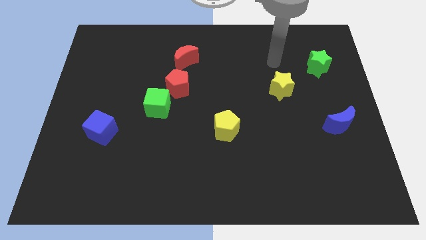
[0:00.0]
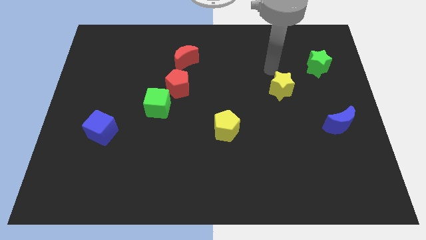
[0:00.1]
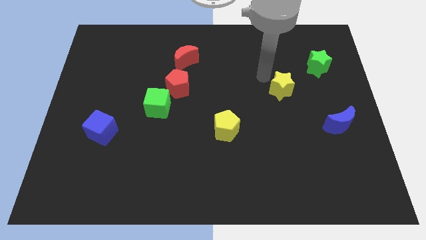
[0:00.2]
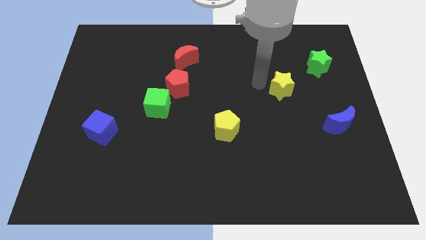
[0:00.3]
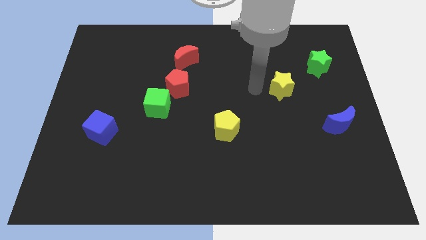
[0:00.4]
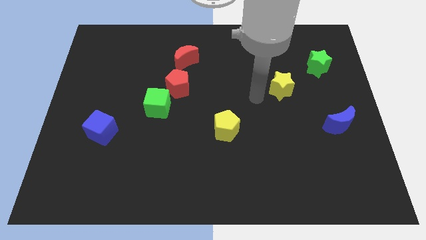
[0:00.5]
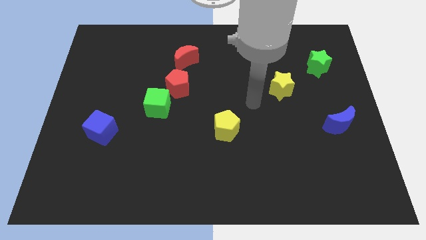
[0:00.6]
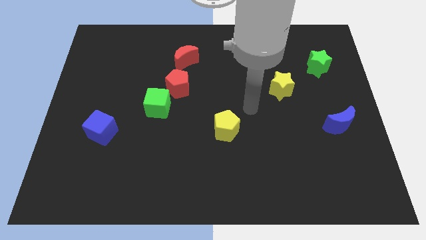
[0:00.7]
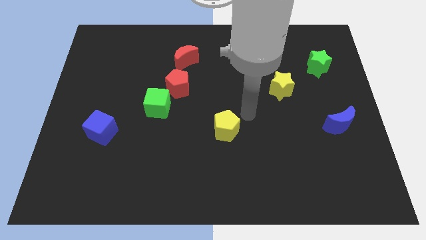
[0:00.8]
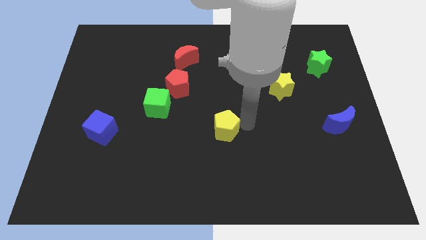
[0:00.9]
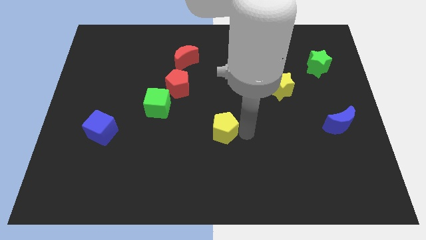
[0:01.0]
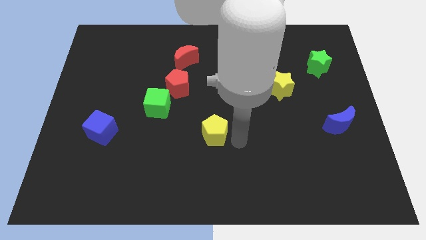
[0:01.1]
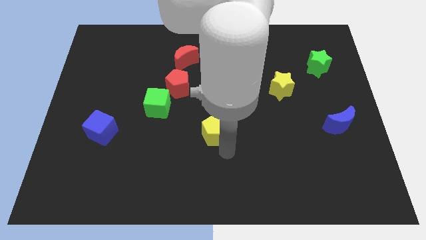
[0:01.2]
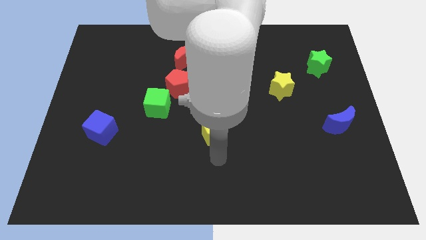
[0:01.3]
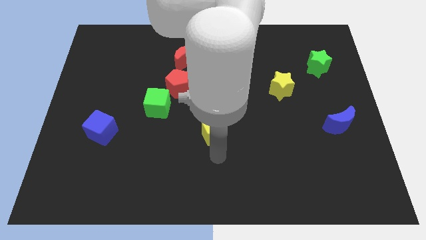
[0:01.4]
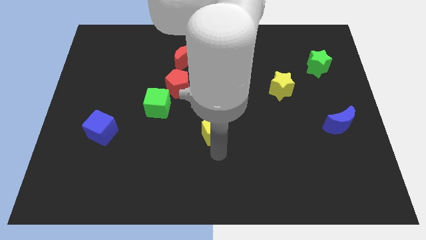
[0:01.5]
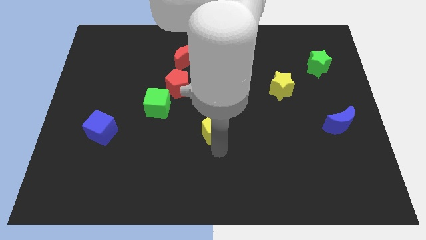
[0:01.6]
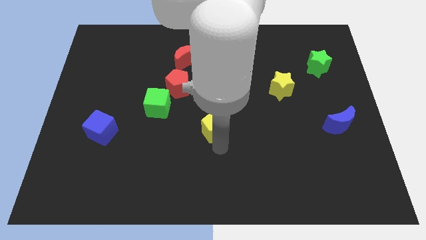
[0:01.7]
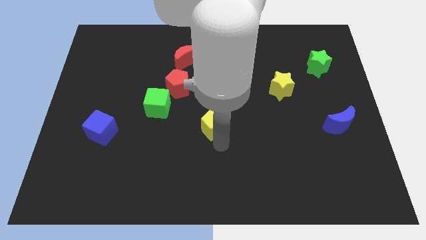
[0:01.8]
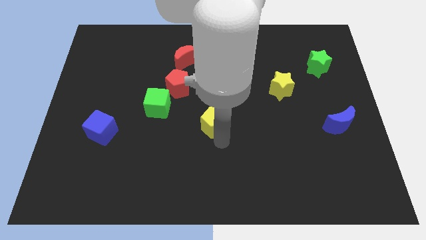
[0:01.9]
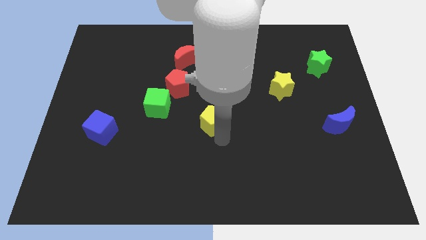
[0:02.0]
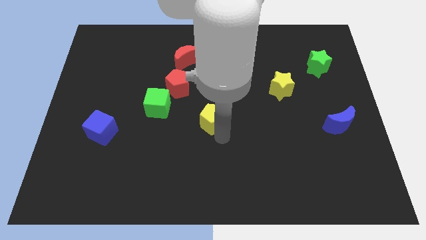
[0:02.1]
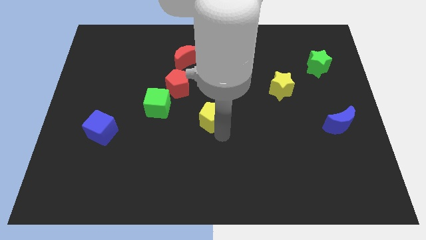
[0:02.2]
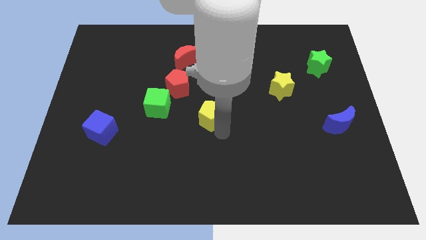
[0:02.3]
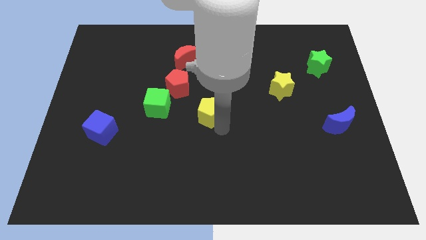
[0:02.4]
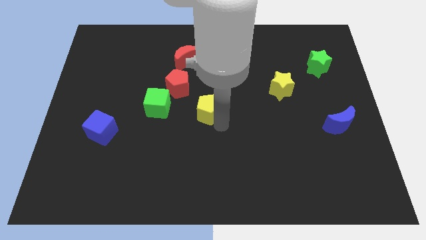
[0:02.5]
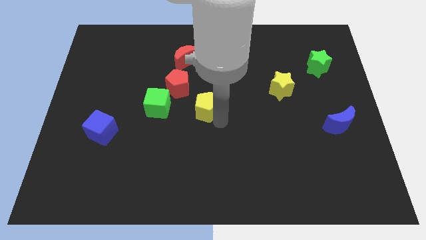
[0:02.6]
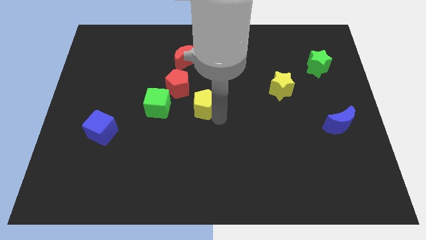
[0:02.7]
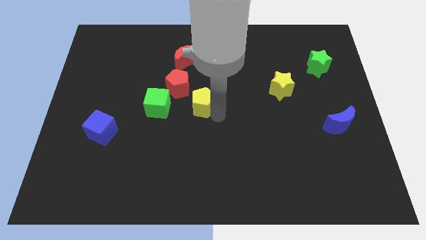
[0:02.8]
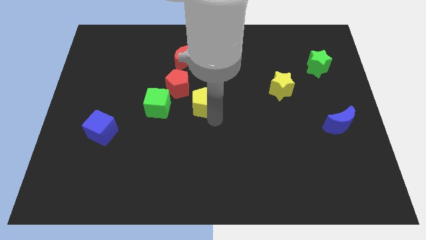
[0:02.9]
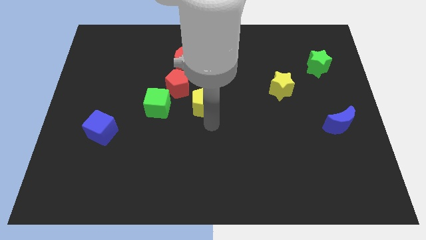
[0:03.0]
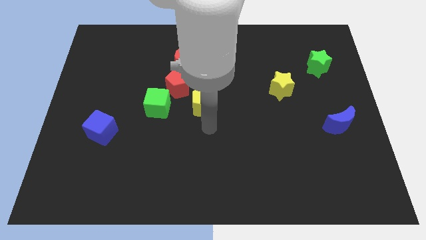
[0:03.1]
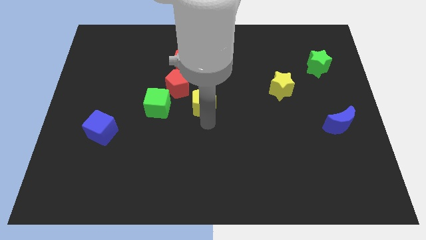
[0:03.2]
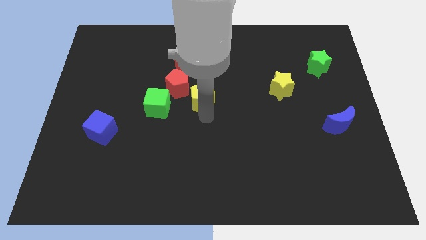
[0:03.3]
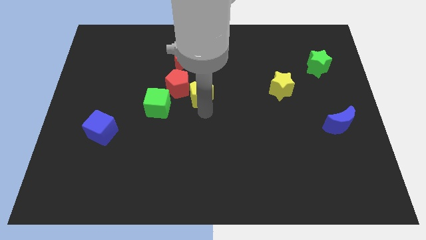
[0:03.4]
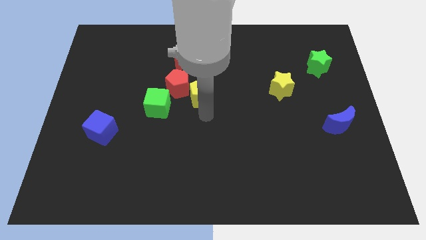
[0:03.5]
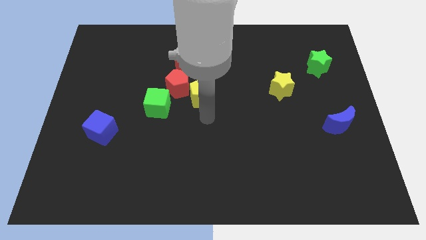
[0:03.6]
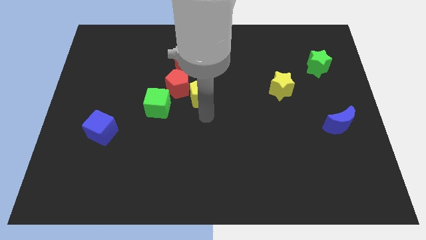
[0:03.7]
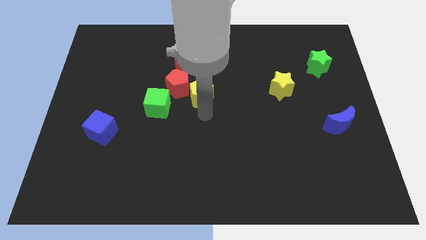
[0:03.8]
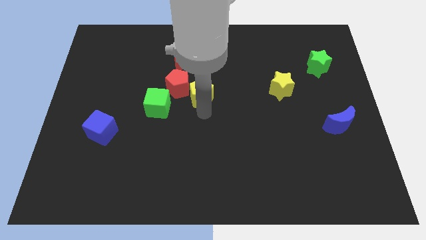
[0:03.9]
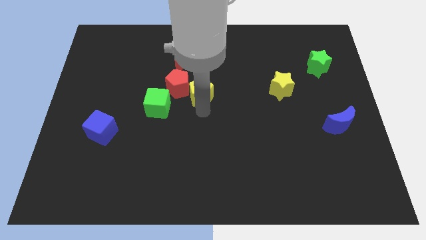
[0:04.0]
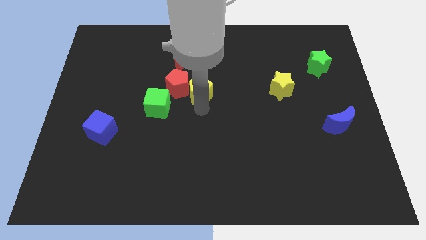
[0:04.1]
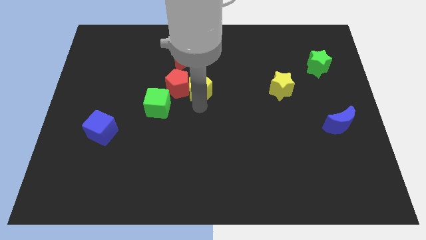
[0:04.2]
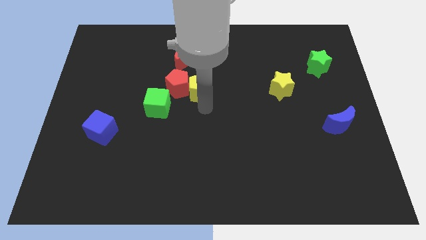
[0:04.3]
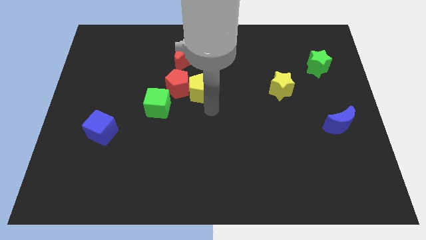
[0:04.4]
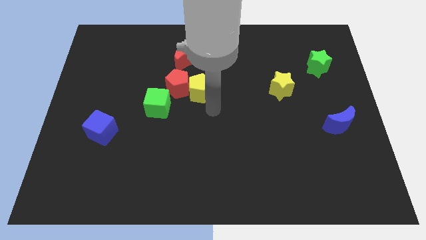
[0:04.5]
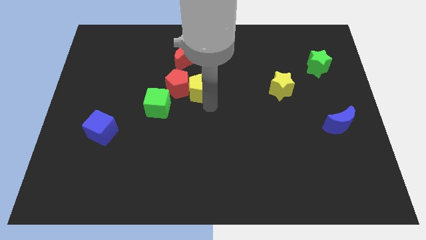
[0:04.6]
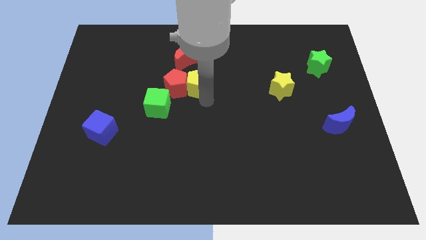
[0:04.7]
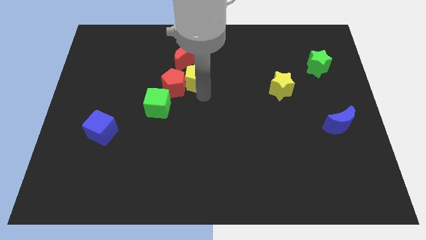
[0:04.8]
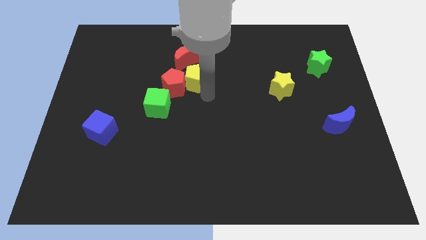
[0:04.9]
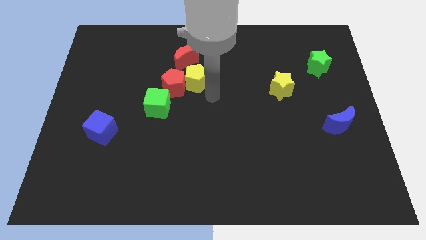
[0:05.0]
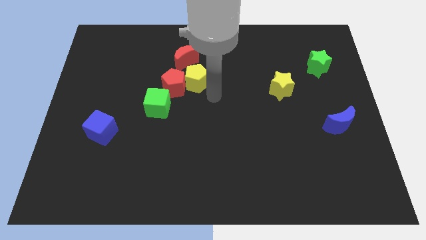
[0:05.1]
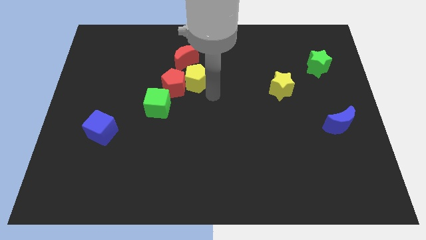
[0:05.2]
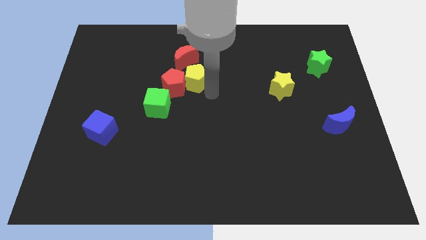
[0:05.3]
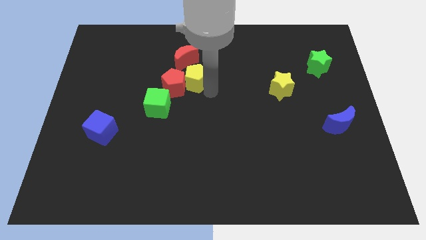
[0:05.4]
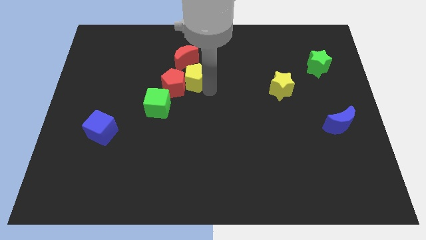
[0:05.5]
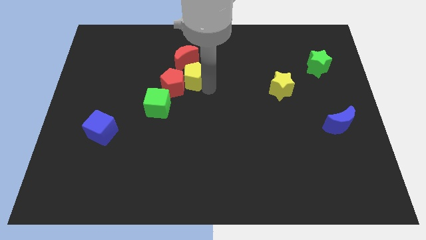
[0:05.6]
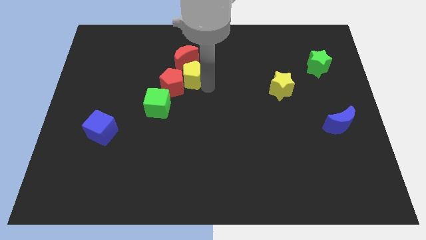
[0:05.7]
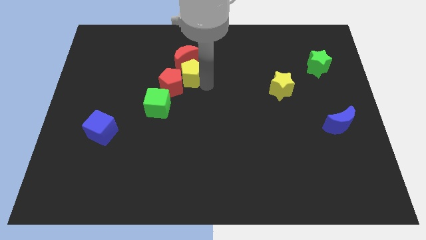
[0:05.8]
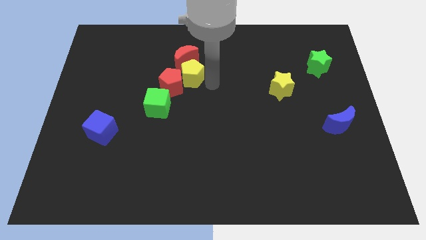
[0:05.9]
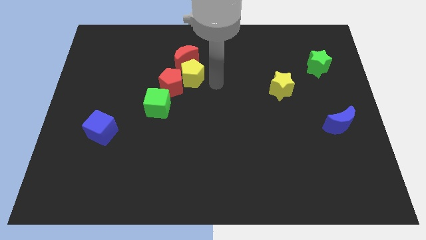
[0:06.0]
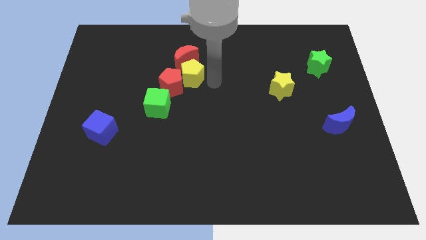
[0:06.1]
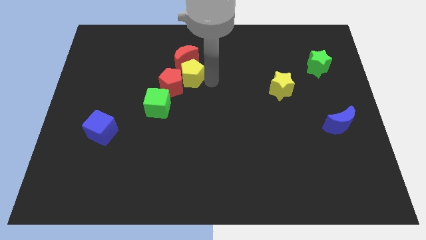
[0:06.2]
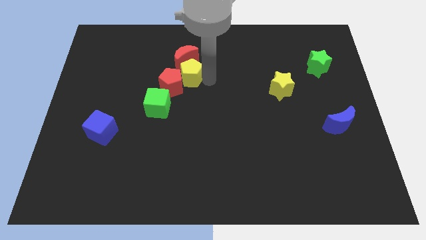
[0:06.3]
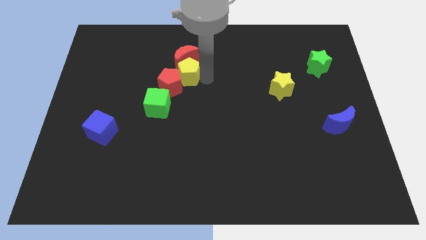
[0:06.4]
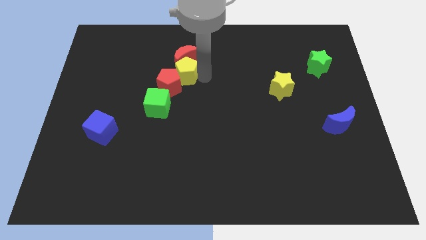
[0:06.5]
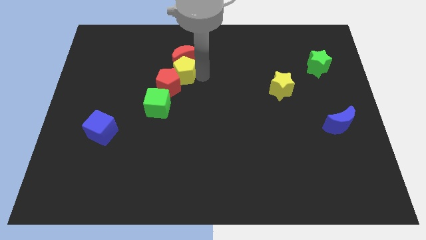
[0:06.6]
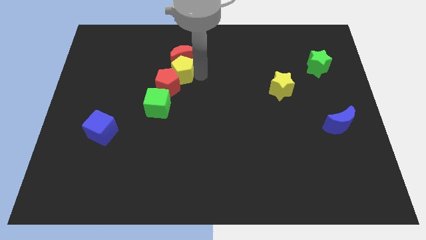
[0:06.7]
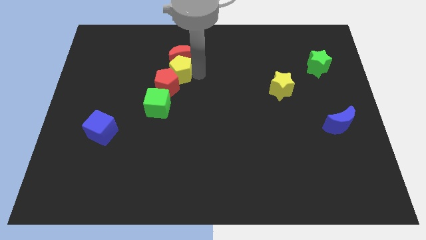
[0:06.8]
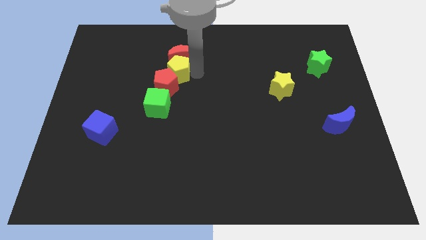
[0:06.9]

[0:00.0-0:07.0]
slide the yellow pentagon upwards and left

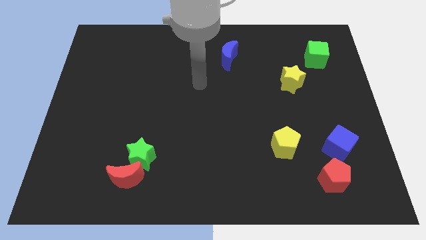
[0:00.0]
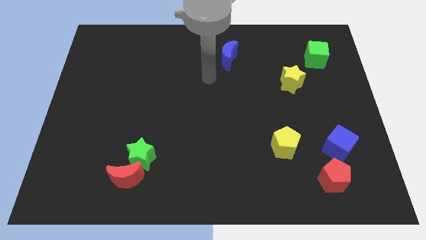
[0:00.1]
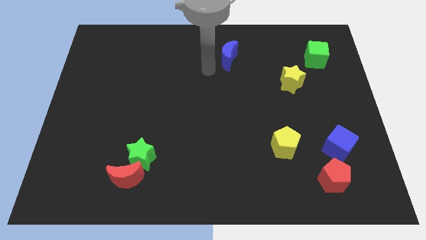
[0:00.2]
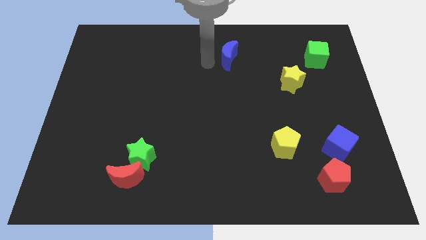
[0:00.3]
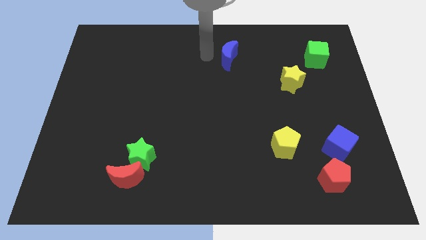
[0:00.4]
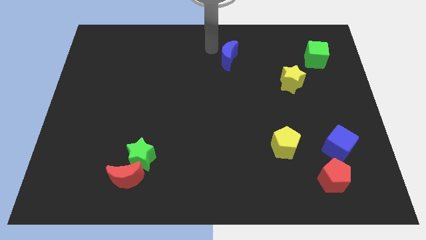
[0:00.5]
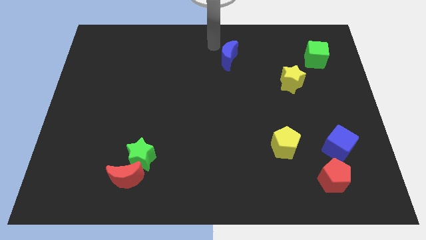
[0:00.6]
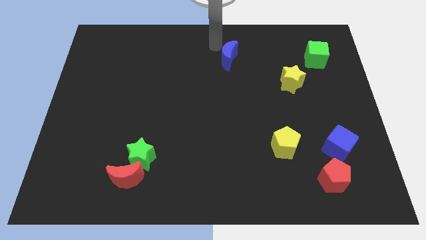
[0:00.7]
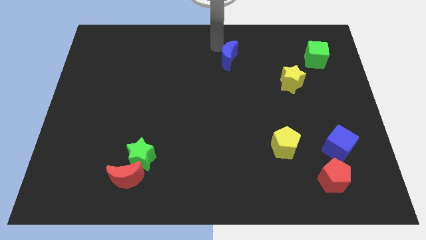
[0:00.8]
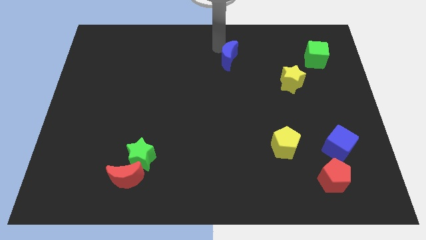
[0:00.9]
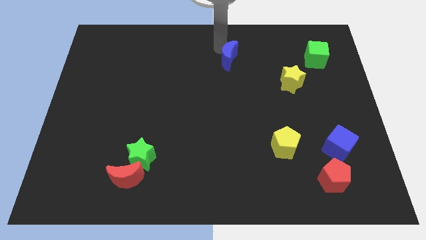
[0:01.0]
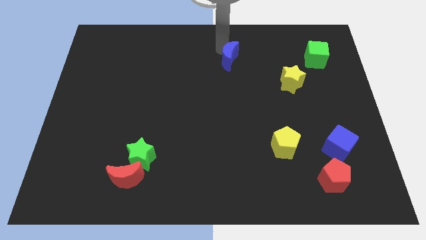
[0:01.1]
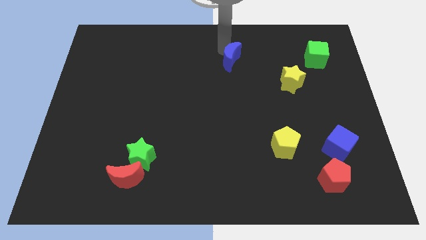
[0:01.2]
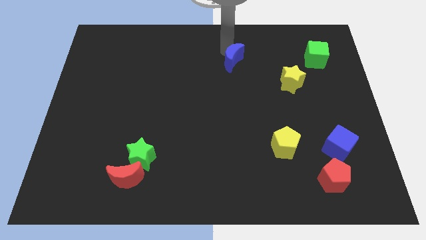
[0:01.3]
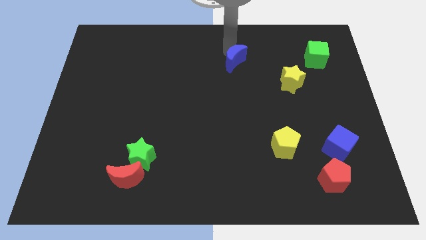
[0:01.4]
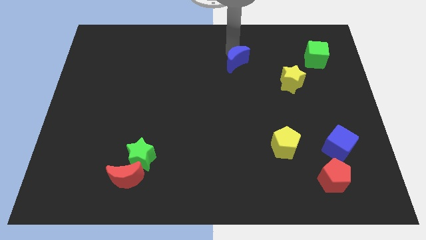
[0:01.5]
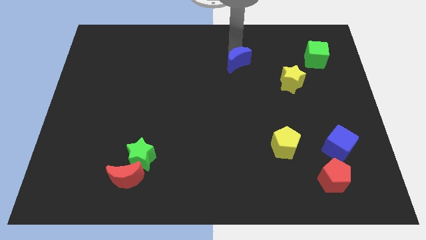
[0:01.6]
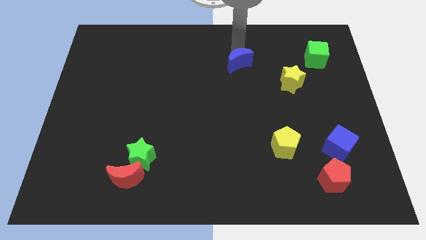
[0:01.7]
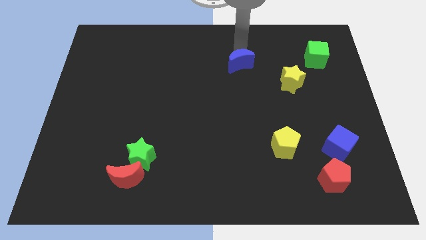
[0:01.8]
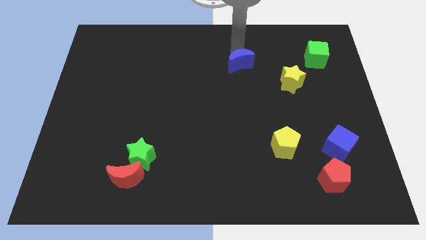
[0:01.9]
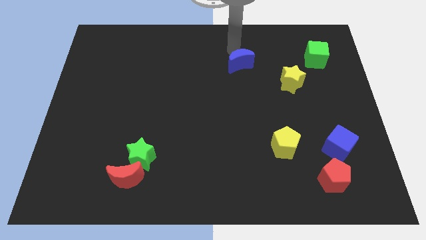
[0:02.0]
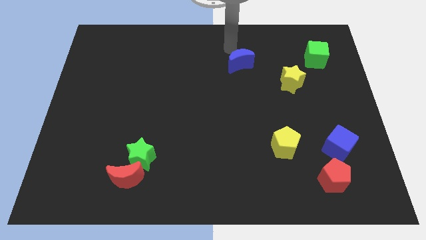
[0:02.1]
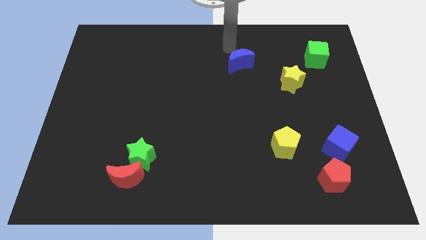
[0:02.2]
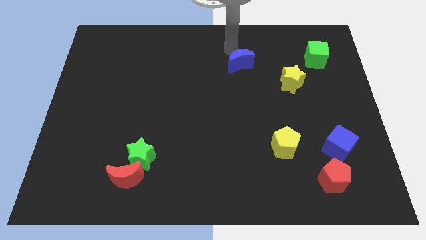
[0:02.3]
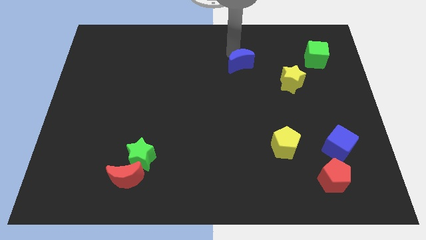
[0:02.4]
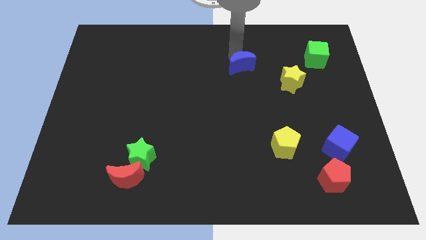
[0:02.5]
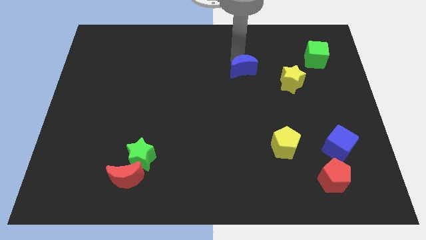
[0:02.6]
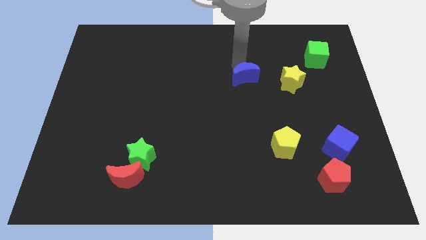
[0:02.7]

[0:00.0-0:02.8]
move the blue moon downwards and to the right slightly
